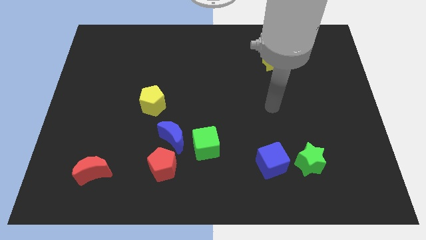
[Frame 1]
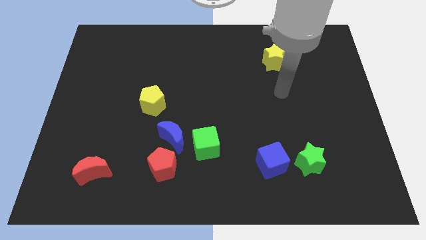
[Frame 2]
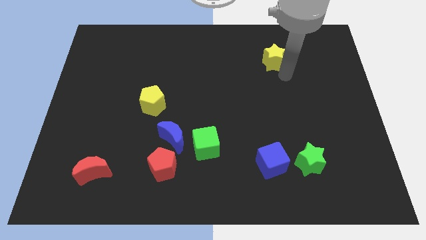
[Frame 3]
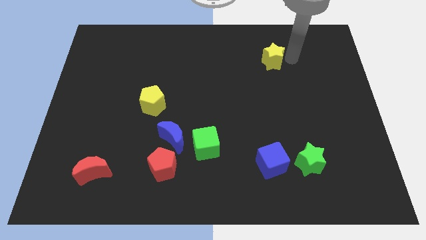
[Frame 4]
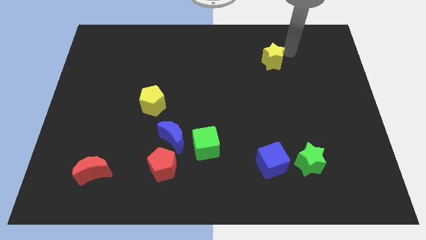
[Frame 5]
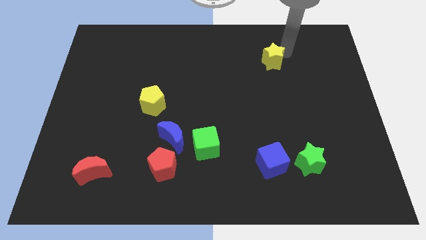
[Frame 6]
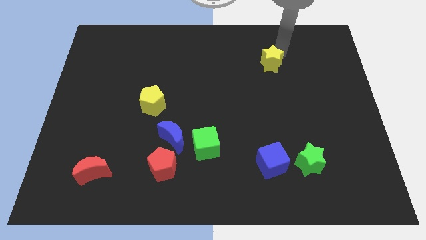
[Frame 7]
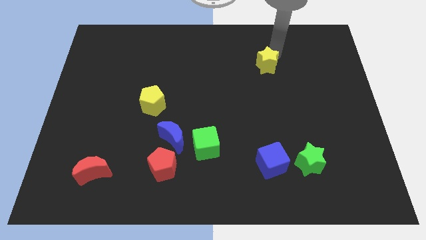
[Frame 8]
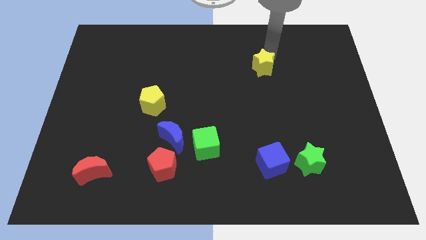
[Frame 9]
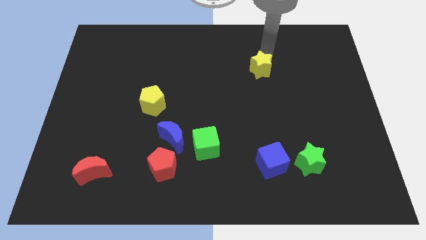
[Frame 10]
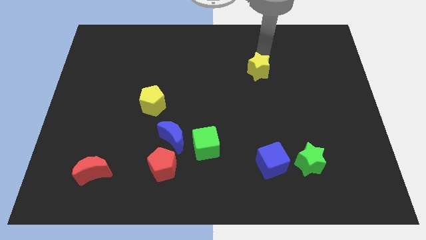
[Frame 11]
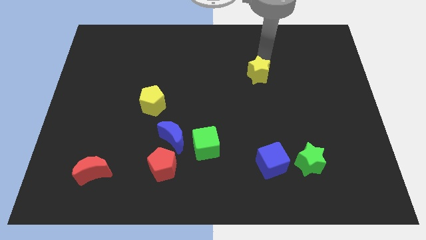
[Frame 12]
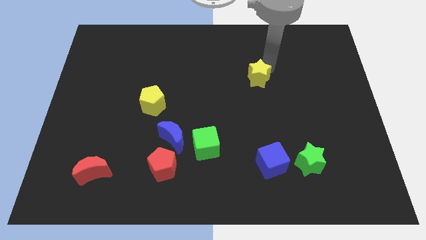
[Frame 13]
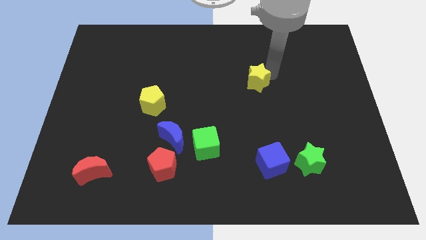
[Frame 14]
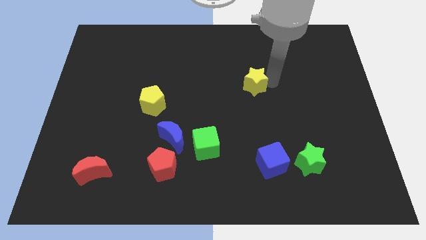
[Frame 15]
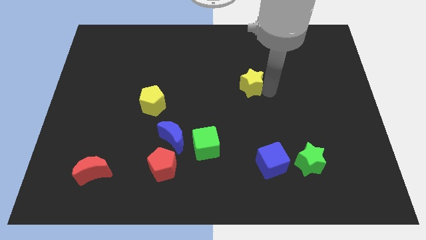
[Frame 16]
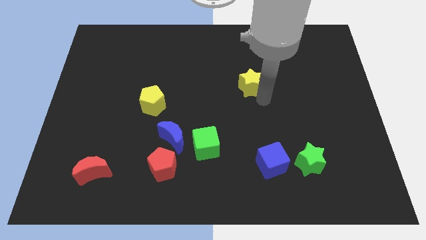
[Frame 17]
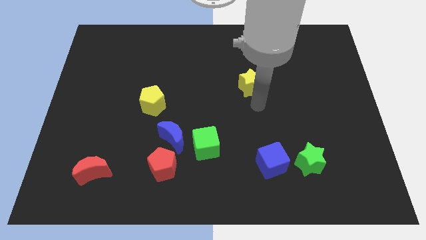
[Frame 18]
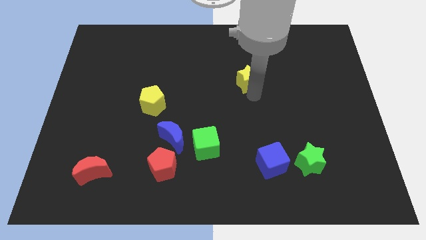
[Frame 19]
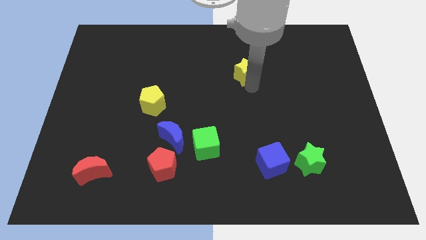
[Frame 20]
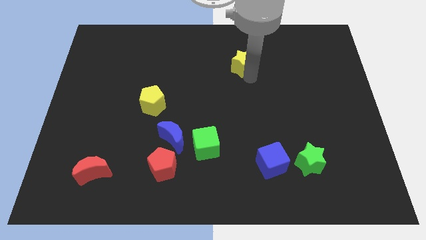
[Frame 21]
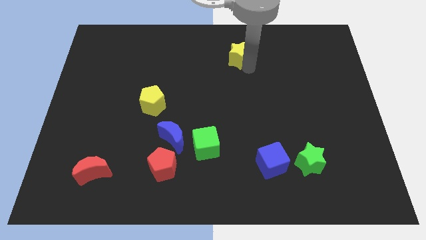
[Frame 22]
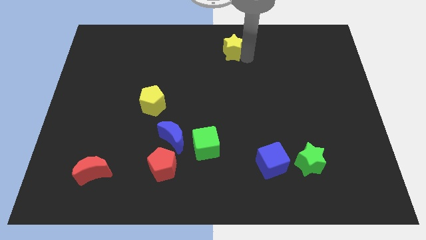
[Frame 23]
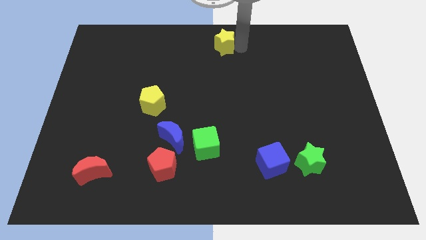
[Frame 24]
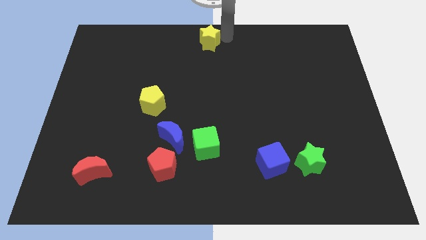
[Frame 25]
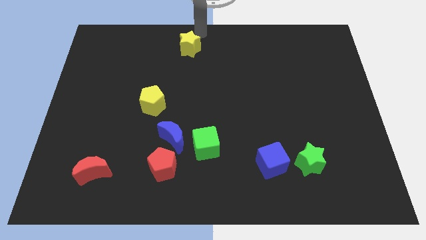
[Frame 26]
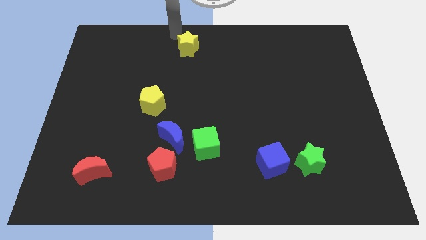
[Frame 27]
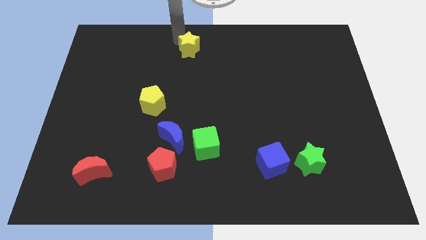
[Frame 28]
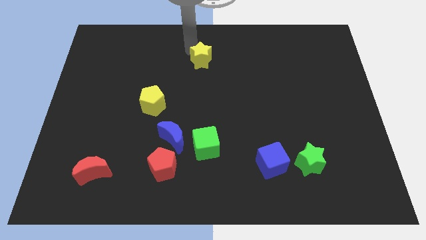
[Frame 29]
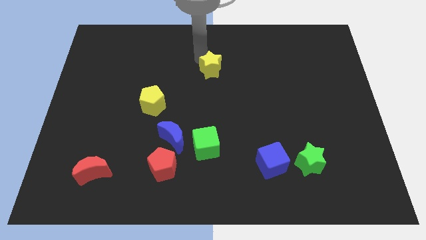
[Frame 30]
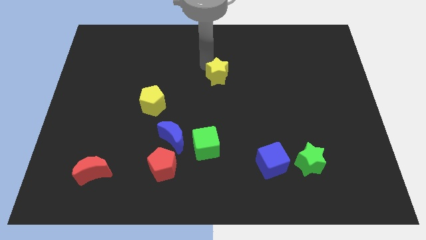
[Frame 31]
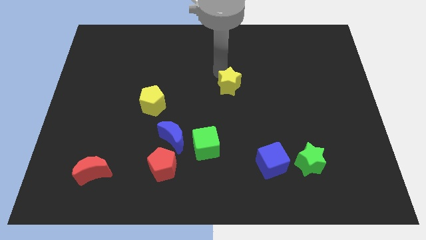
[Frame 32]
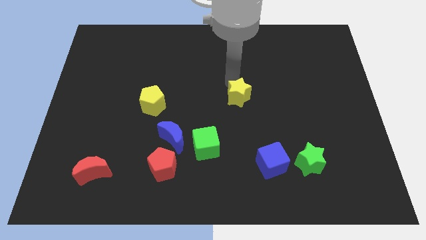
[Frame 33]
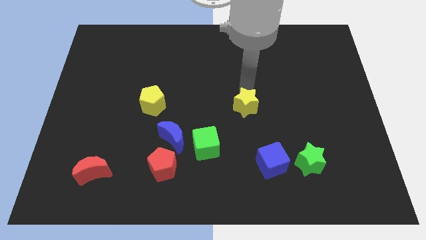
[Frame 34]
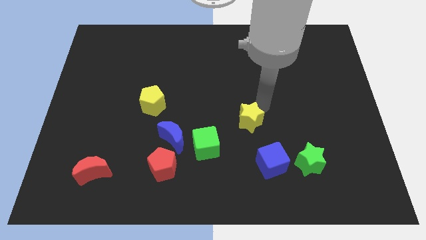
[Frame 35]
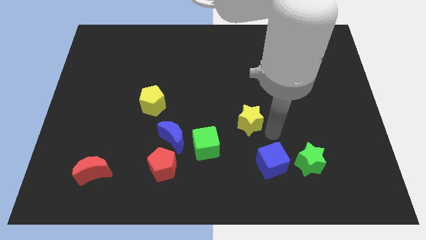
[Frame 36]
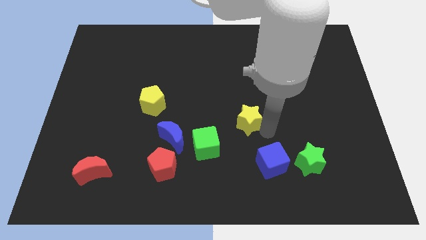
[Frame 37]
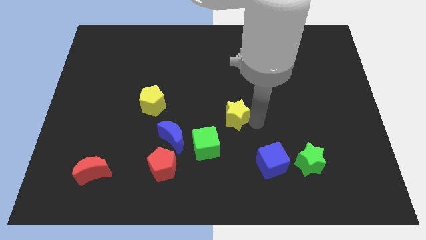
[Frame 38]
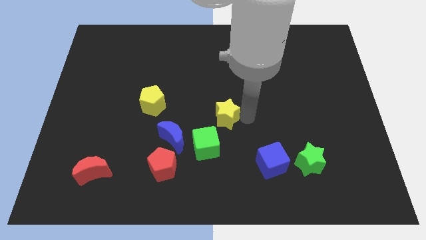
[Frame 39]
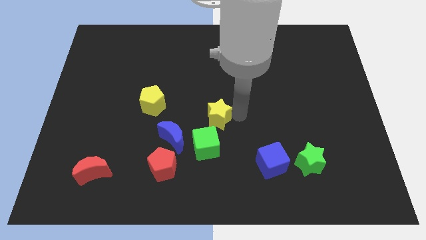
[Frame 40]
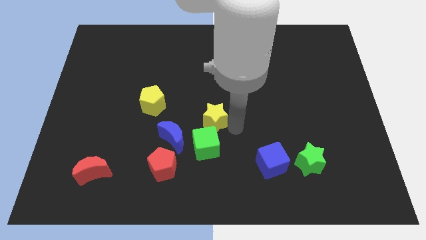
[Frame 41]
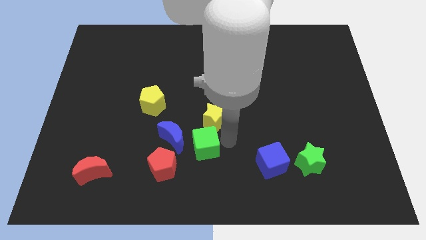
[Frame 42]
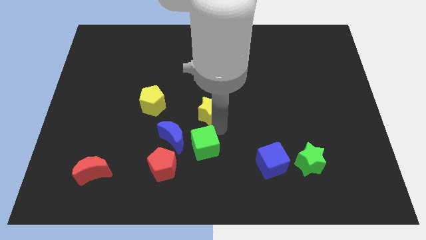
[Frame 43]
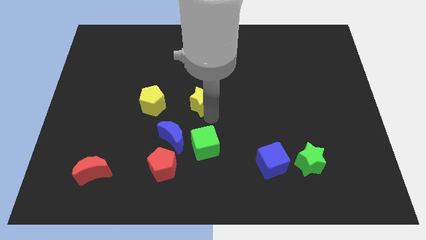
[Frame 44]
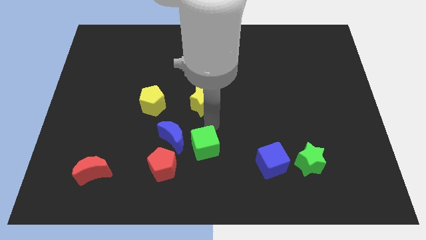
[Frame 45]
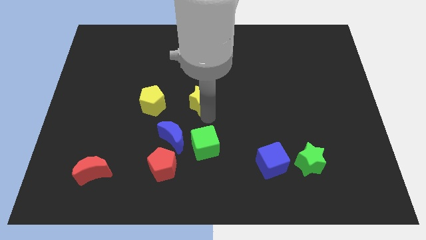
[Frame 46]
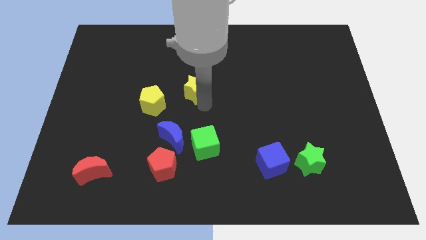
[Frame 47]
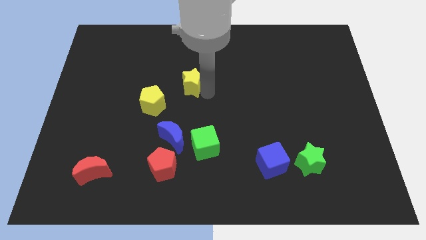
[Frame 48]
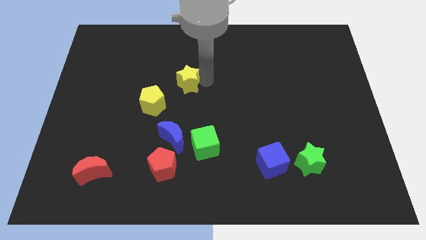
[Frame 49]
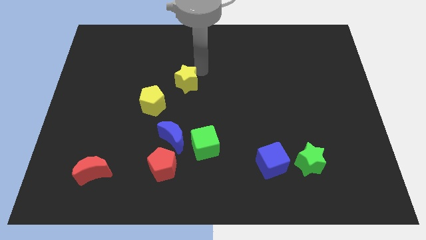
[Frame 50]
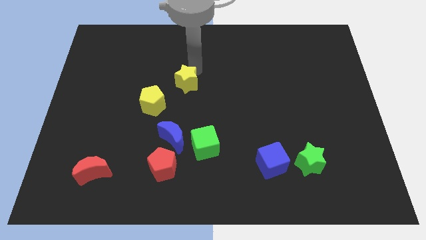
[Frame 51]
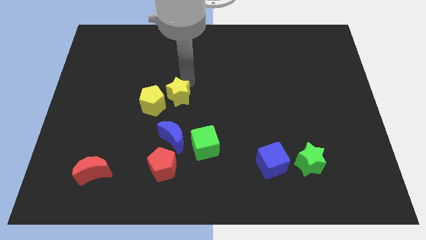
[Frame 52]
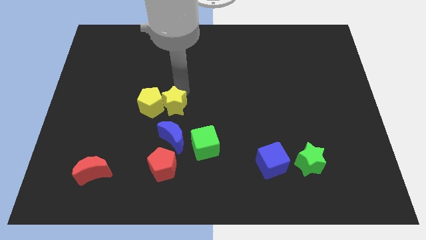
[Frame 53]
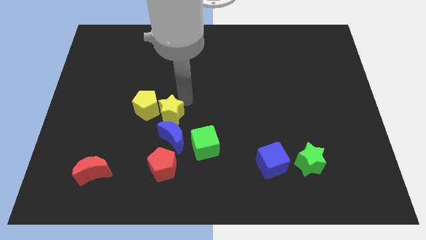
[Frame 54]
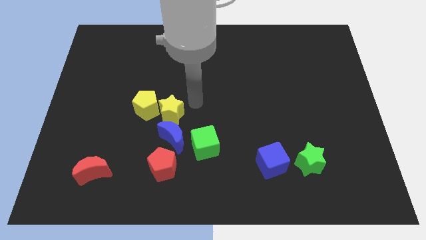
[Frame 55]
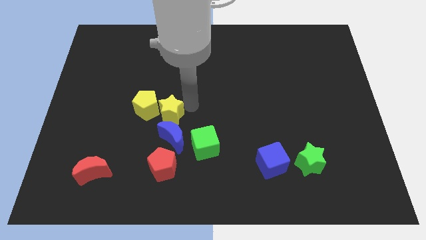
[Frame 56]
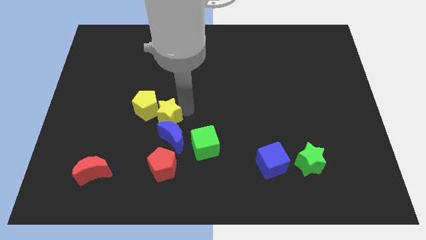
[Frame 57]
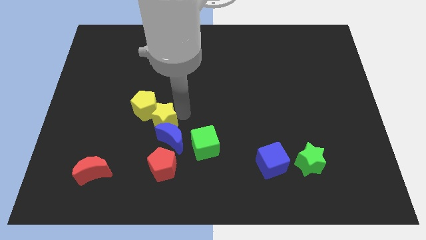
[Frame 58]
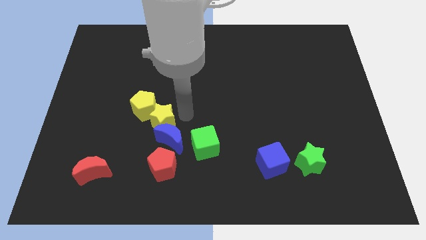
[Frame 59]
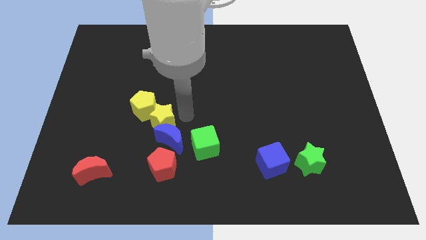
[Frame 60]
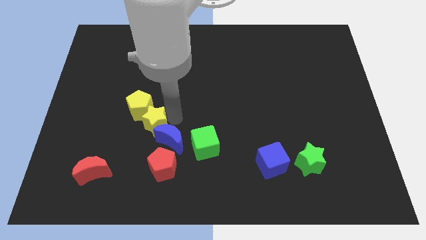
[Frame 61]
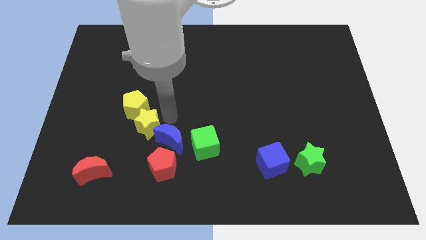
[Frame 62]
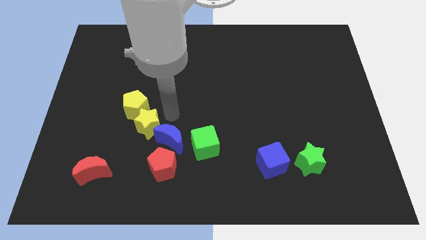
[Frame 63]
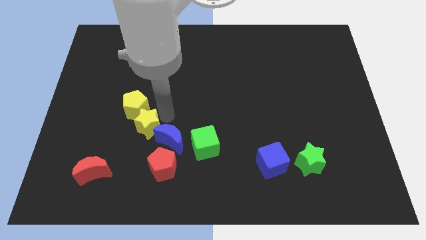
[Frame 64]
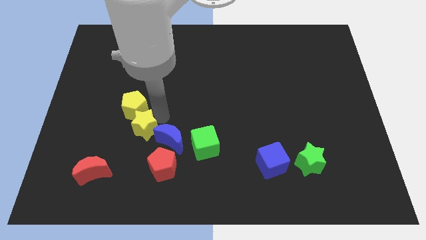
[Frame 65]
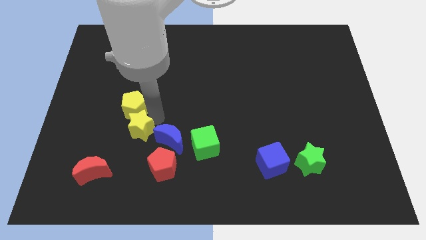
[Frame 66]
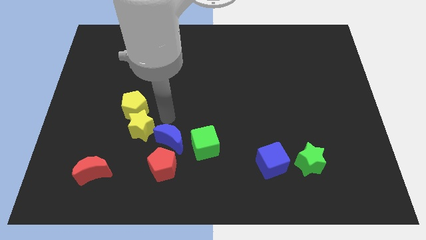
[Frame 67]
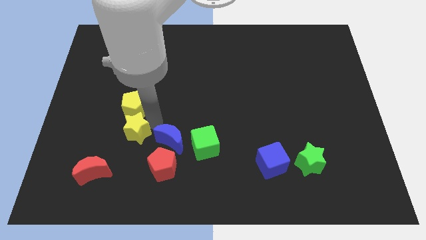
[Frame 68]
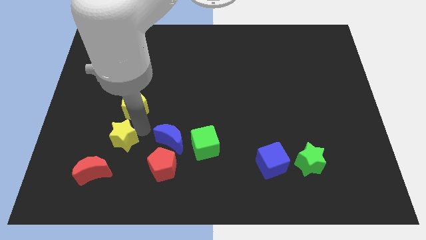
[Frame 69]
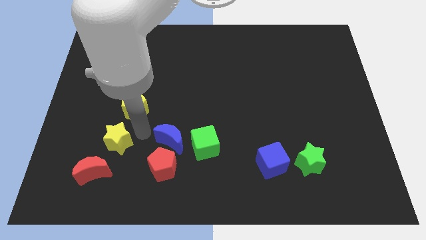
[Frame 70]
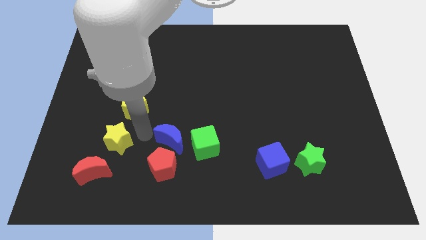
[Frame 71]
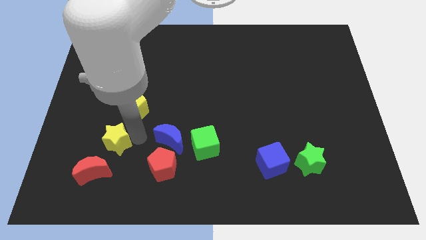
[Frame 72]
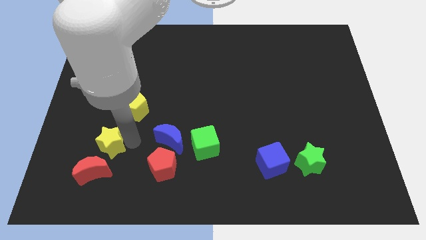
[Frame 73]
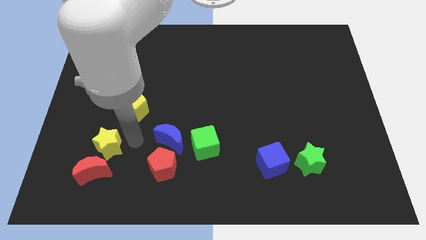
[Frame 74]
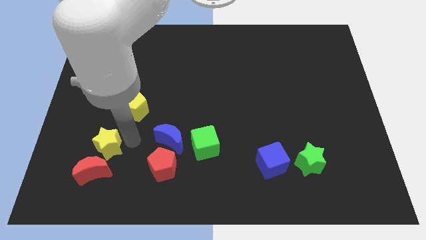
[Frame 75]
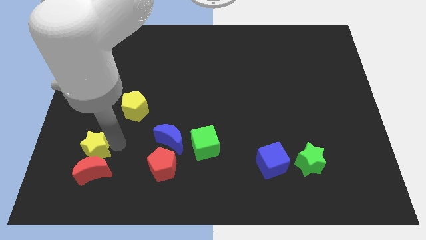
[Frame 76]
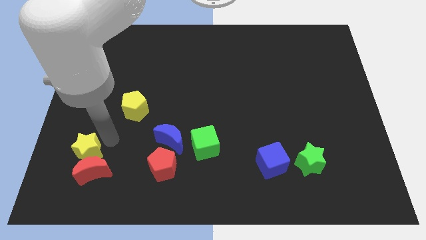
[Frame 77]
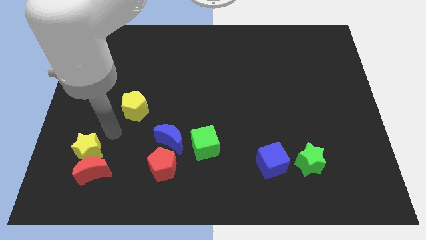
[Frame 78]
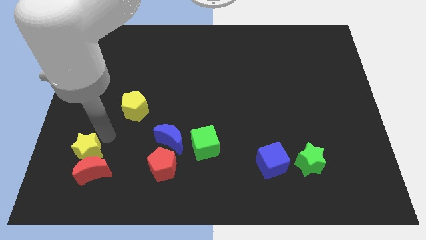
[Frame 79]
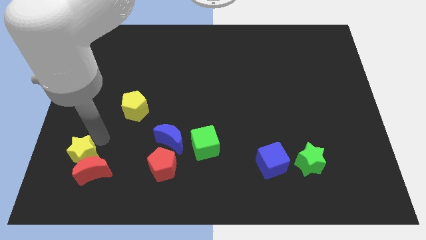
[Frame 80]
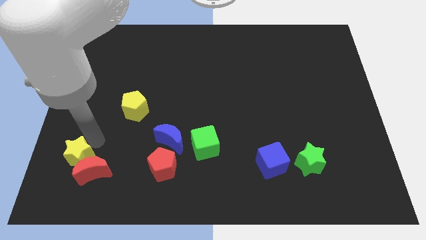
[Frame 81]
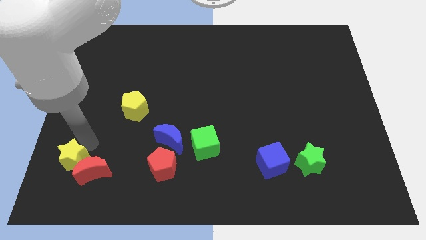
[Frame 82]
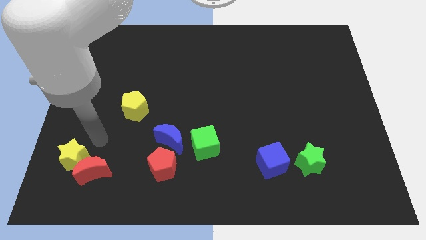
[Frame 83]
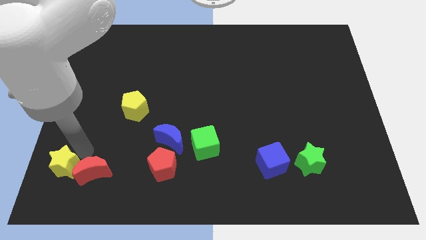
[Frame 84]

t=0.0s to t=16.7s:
move the yellow star to the bottom left
